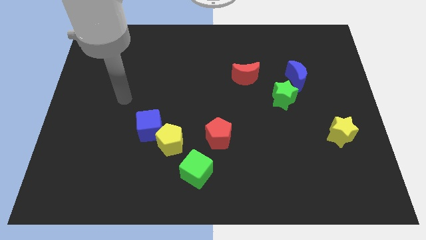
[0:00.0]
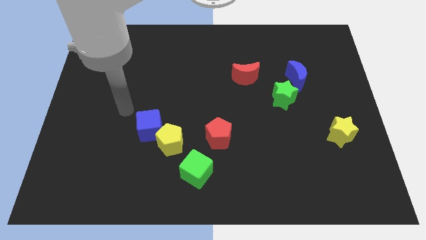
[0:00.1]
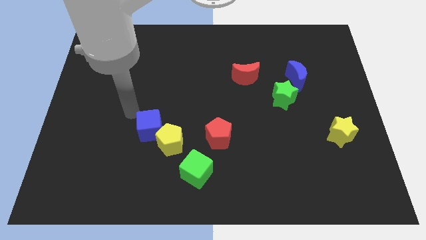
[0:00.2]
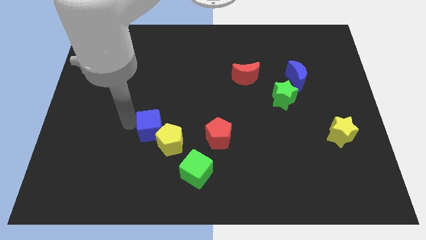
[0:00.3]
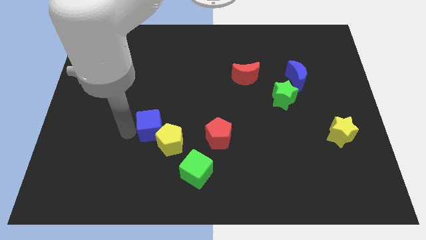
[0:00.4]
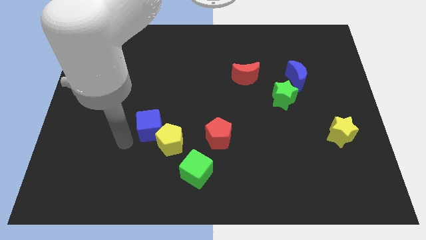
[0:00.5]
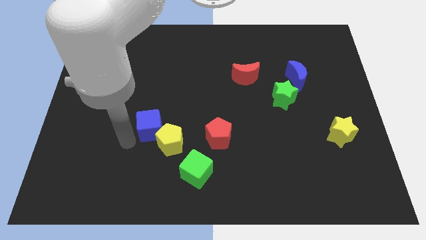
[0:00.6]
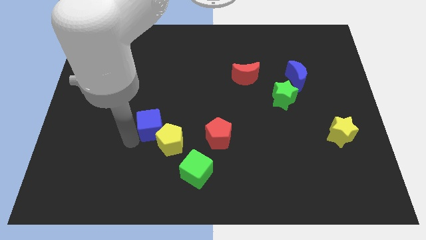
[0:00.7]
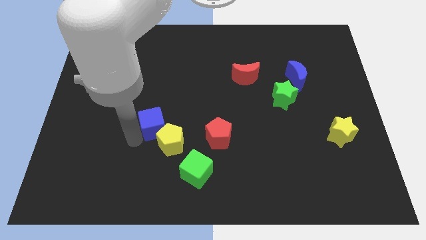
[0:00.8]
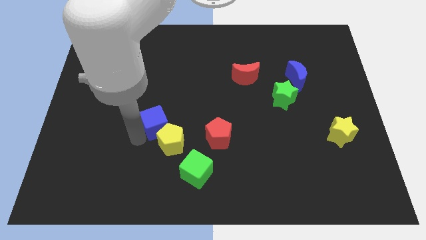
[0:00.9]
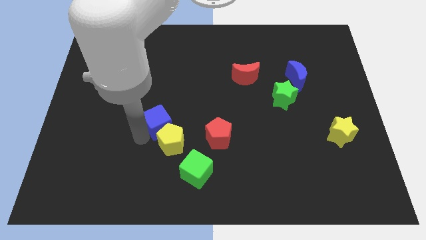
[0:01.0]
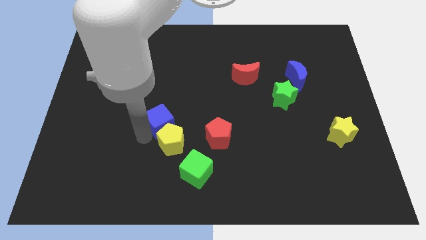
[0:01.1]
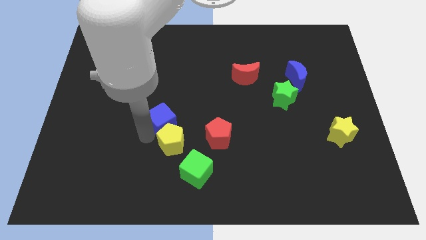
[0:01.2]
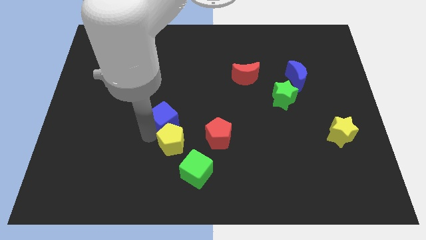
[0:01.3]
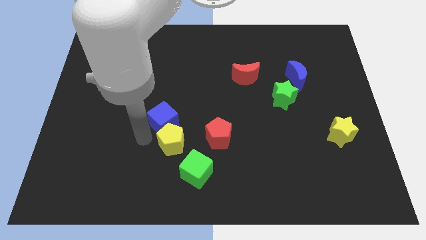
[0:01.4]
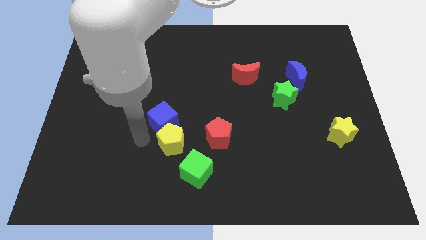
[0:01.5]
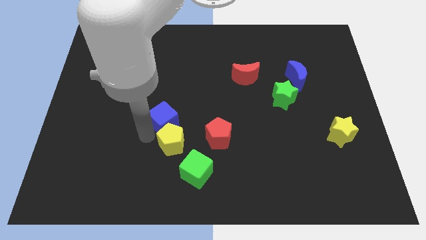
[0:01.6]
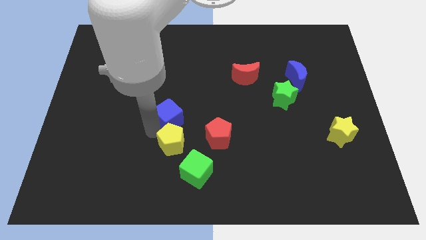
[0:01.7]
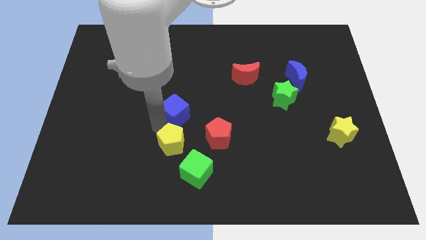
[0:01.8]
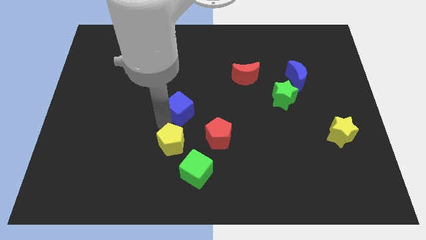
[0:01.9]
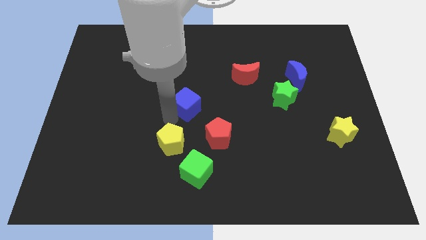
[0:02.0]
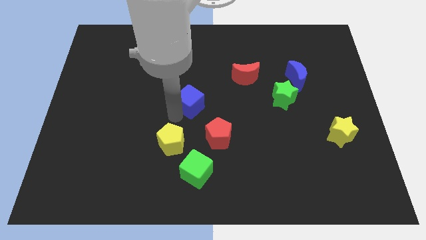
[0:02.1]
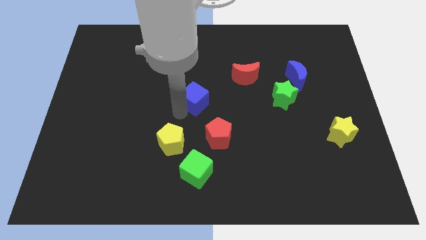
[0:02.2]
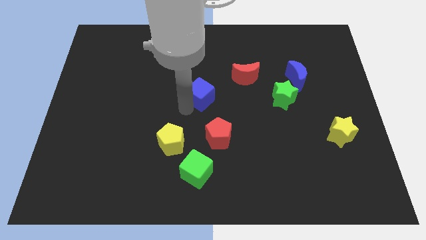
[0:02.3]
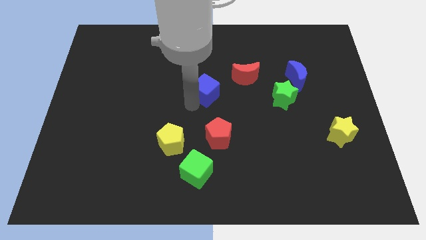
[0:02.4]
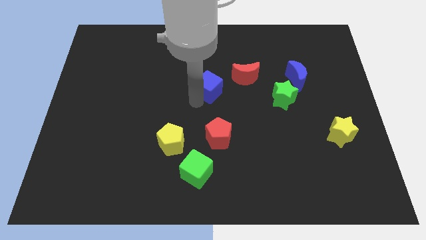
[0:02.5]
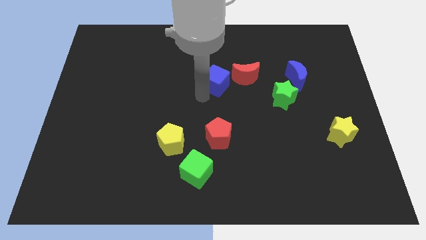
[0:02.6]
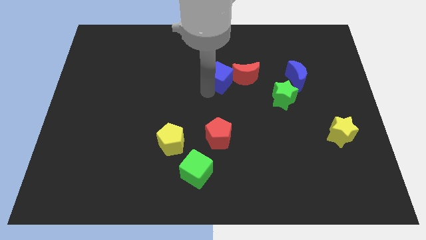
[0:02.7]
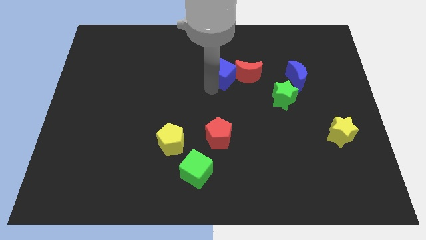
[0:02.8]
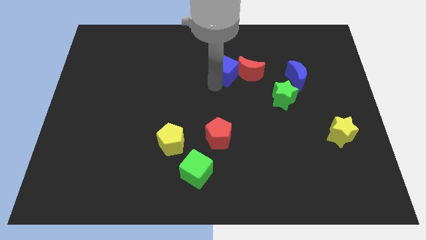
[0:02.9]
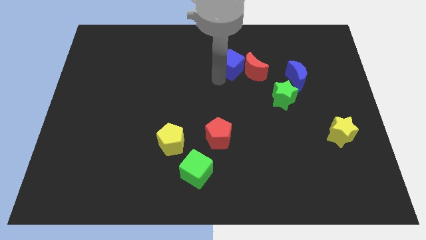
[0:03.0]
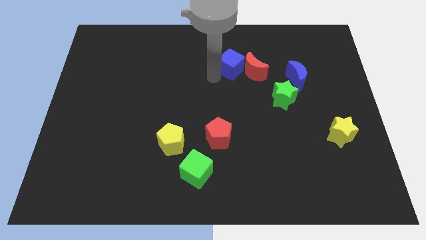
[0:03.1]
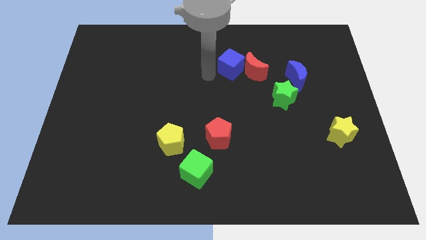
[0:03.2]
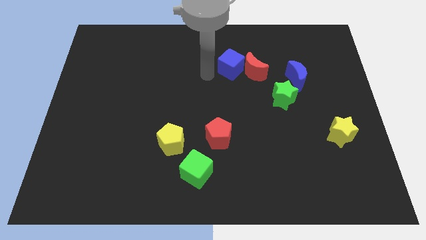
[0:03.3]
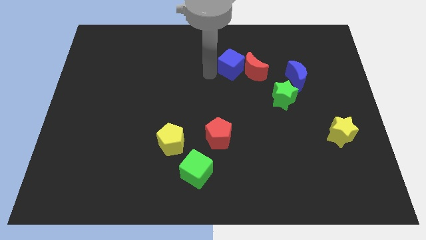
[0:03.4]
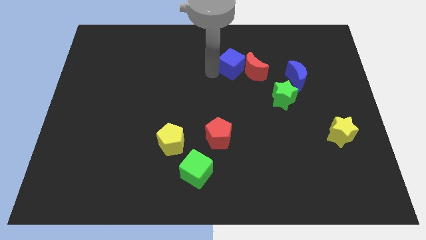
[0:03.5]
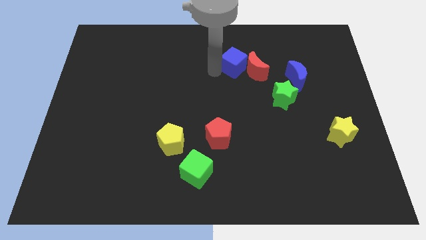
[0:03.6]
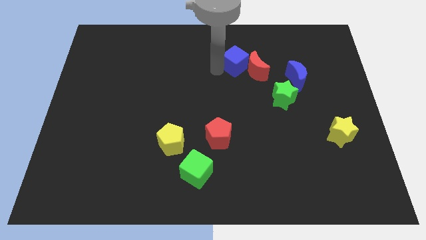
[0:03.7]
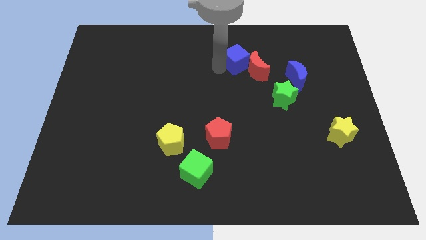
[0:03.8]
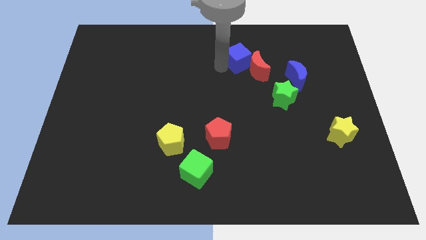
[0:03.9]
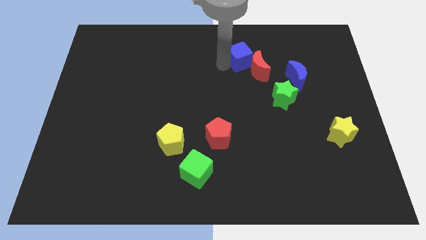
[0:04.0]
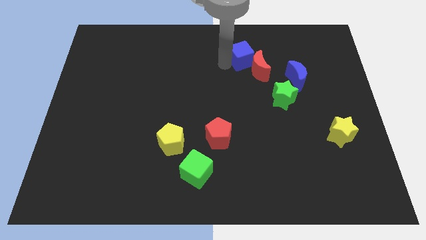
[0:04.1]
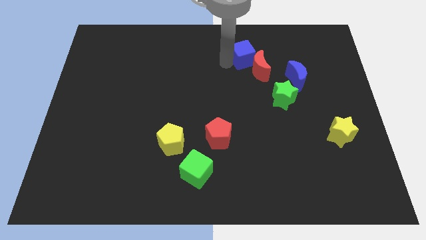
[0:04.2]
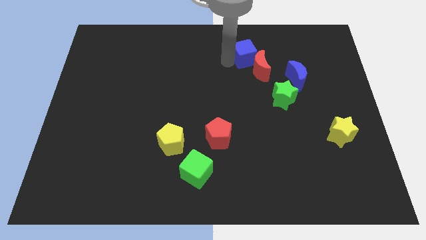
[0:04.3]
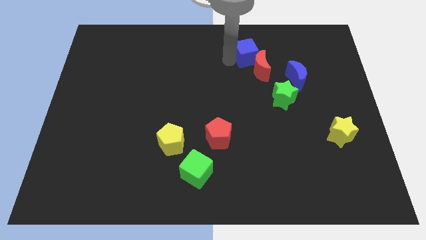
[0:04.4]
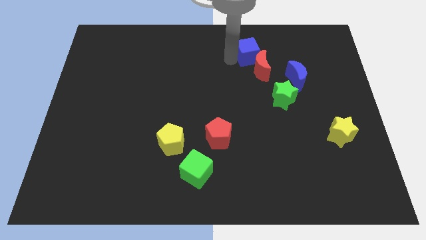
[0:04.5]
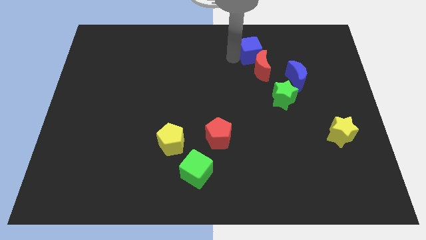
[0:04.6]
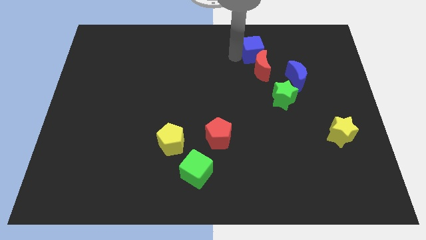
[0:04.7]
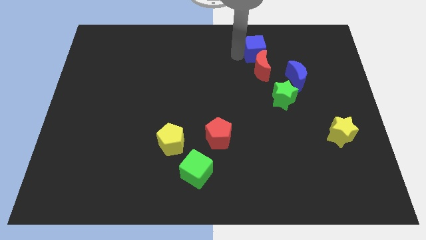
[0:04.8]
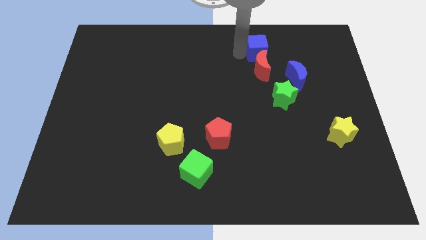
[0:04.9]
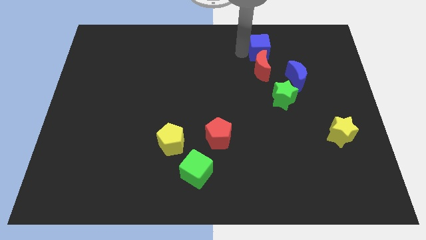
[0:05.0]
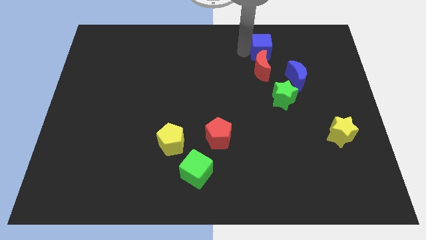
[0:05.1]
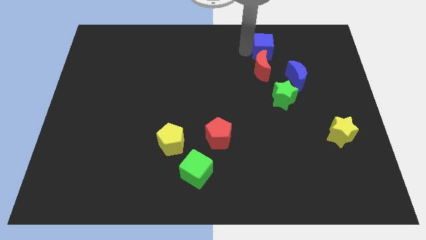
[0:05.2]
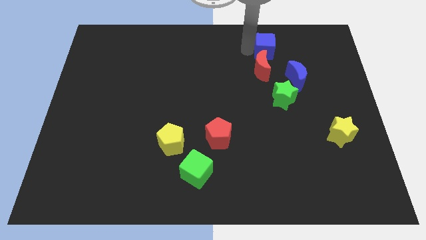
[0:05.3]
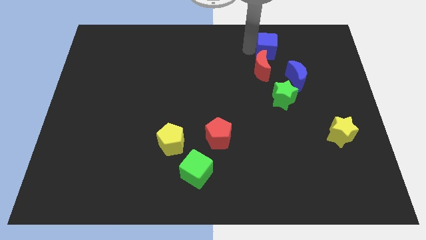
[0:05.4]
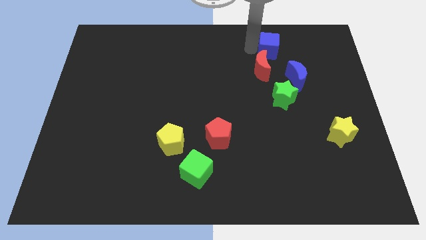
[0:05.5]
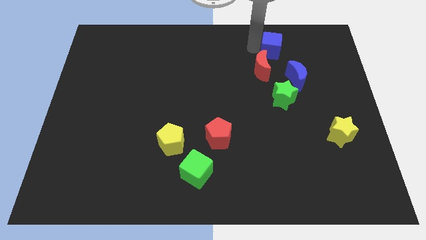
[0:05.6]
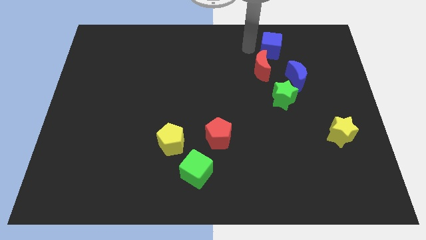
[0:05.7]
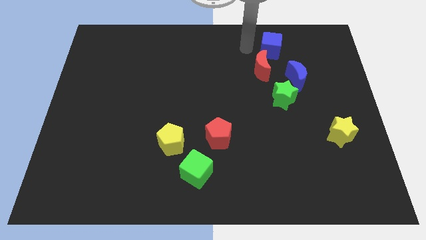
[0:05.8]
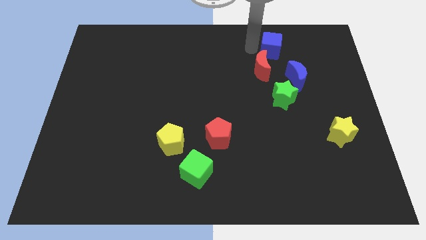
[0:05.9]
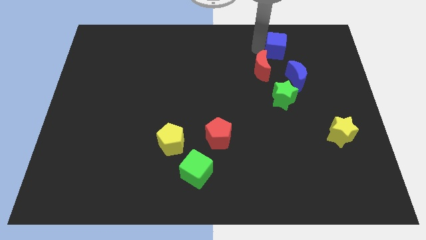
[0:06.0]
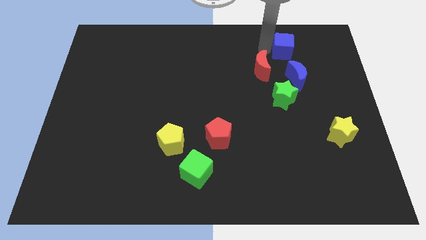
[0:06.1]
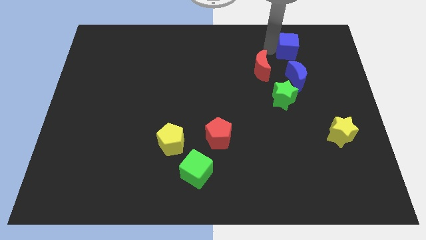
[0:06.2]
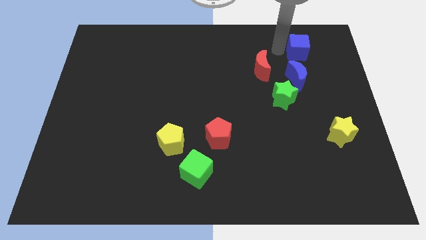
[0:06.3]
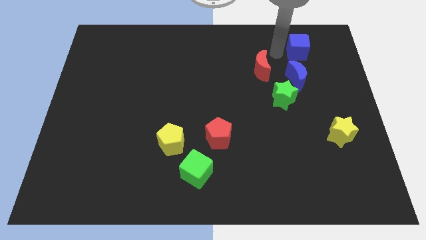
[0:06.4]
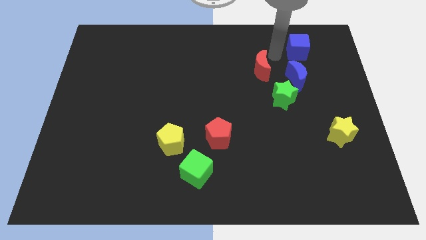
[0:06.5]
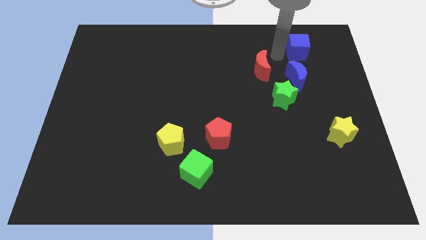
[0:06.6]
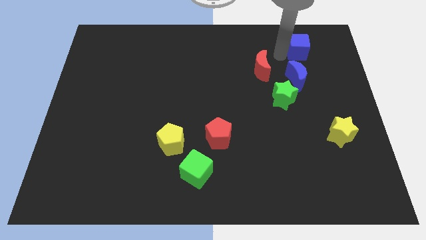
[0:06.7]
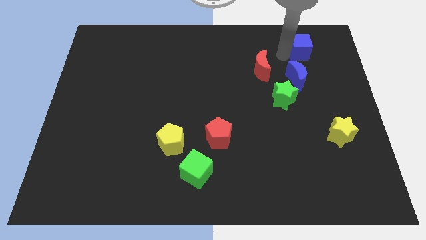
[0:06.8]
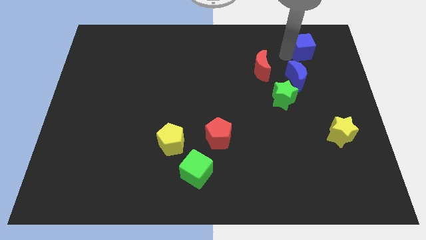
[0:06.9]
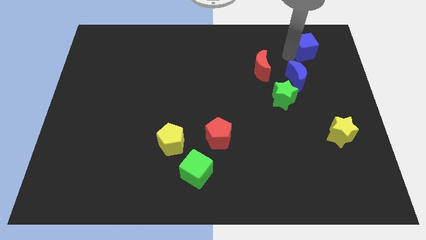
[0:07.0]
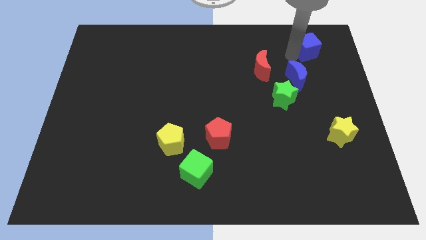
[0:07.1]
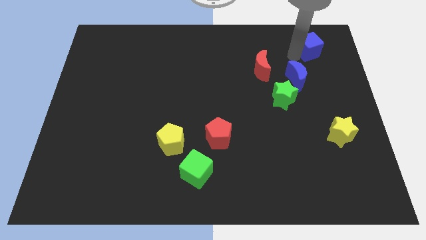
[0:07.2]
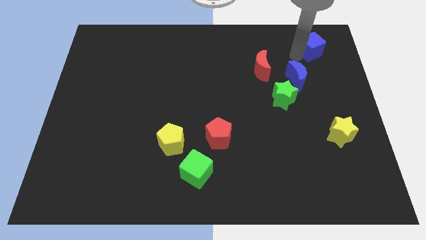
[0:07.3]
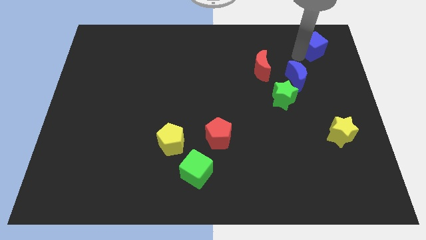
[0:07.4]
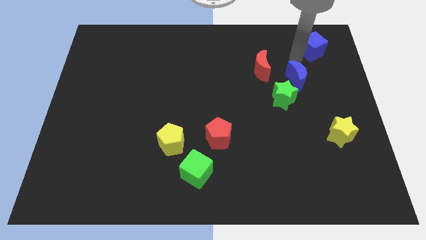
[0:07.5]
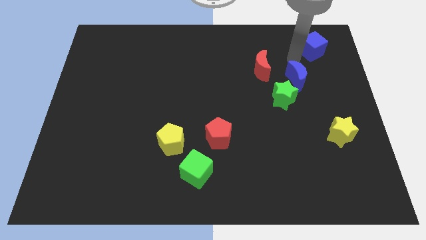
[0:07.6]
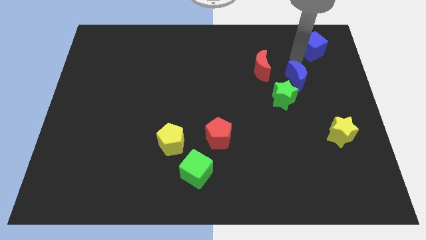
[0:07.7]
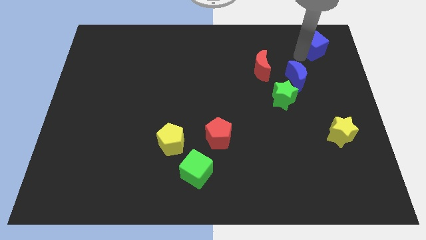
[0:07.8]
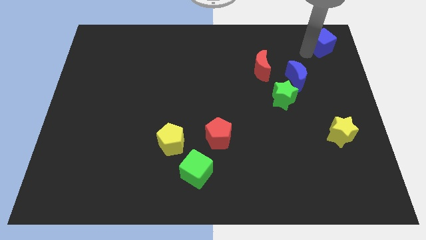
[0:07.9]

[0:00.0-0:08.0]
put the blue cube to the top right corner
